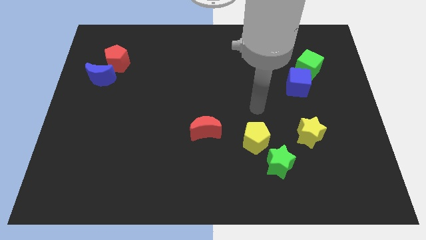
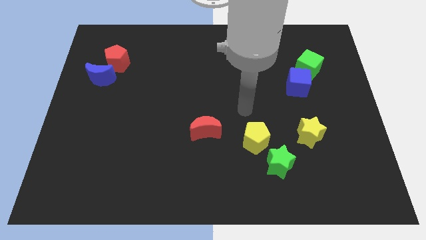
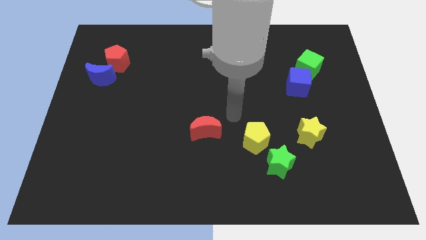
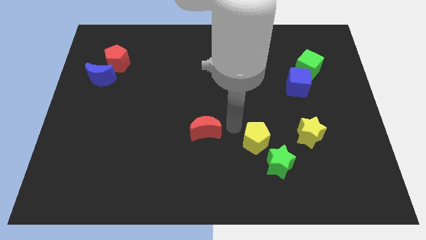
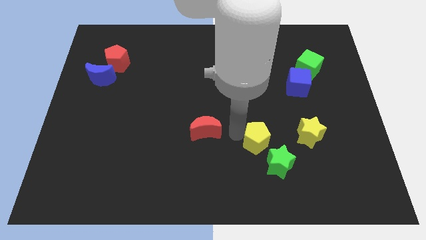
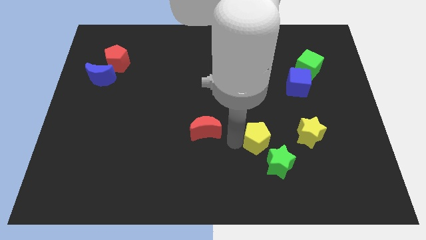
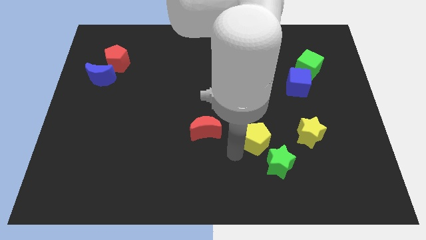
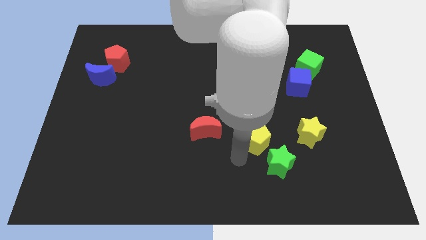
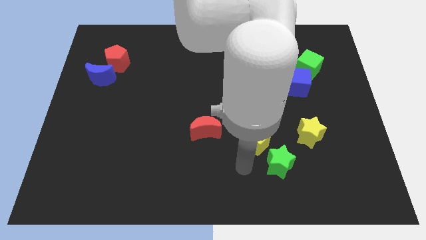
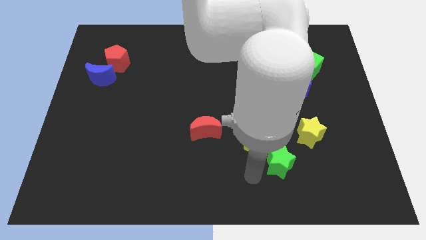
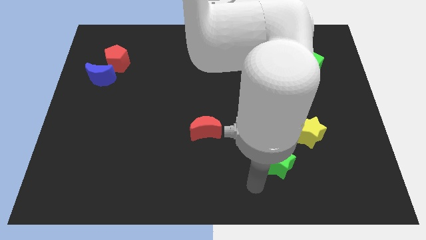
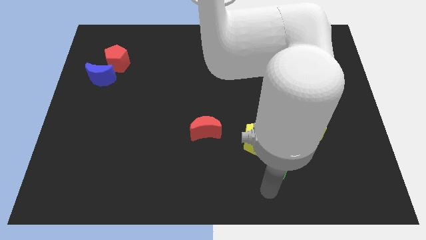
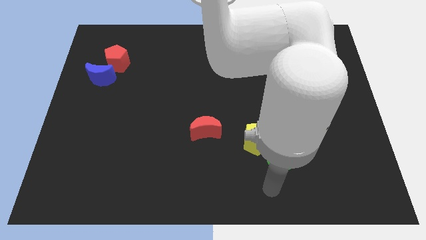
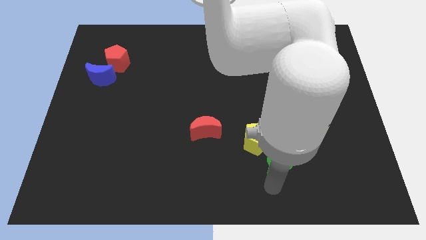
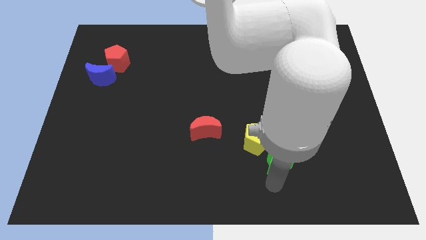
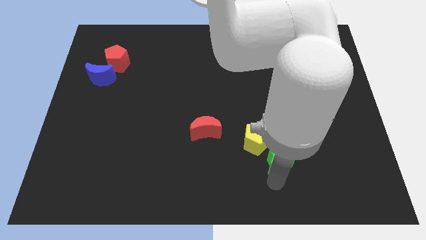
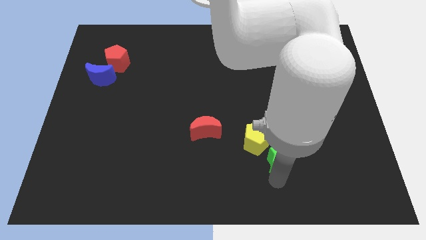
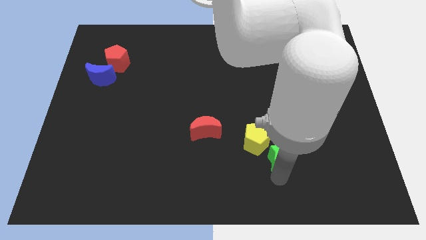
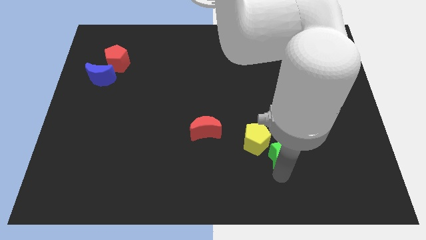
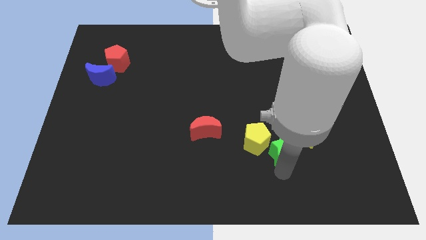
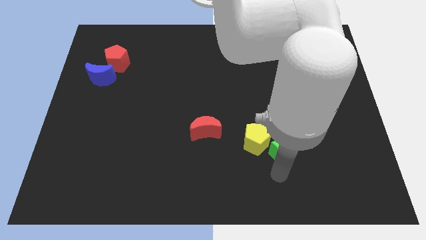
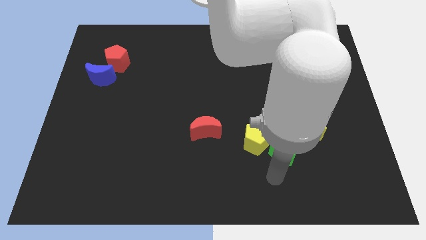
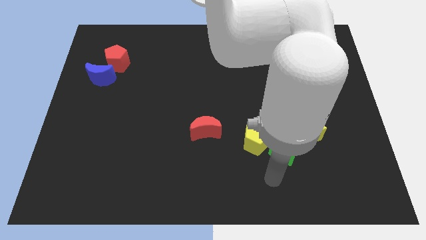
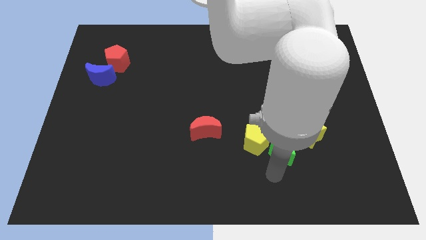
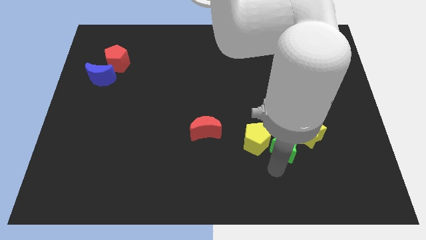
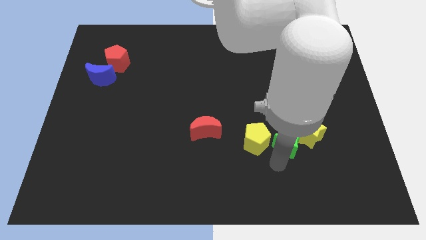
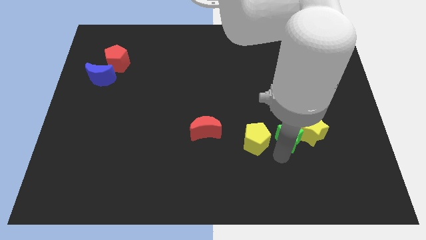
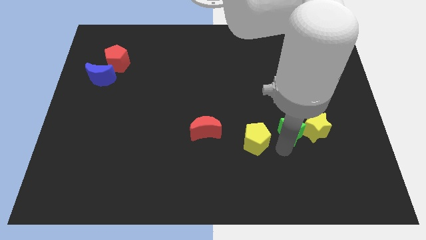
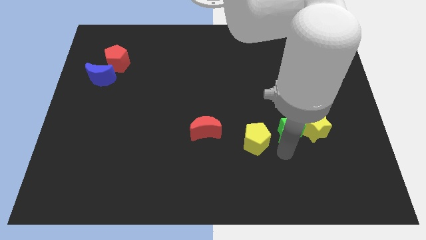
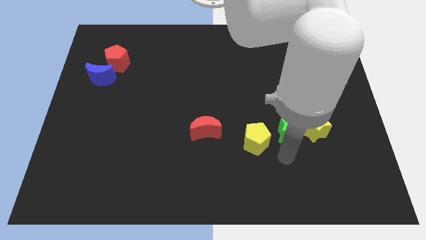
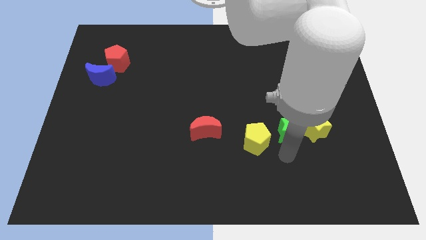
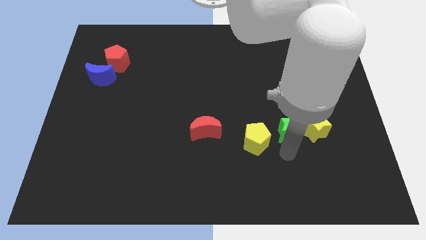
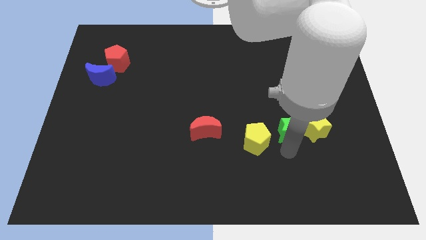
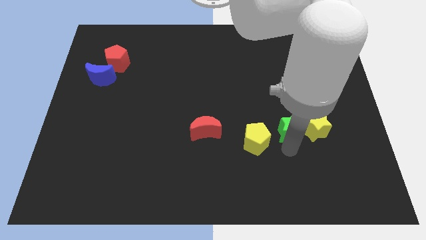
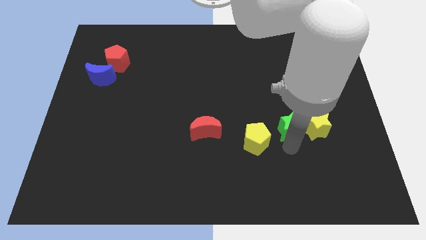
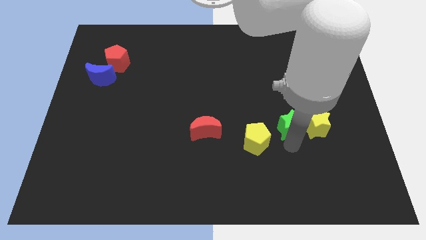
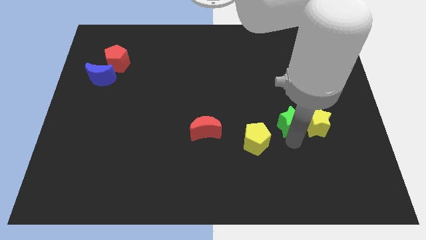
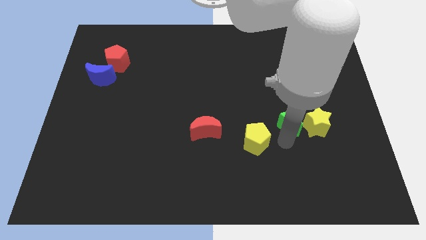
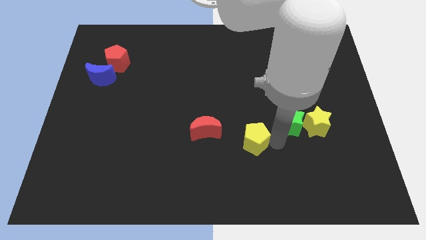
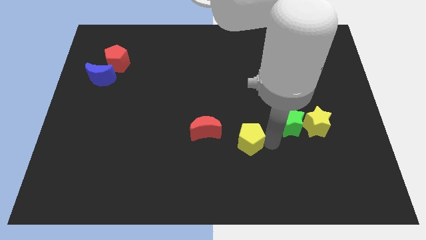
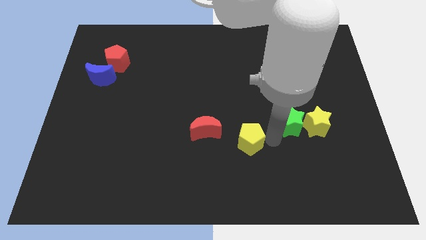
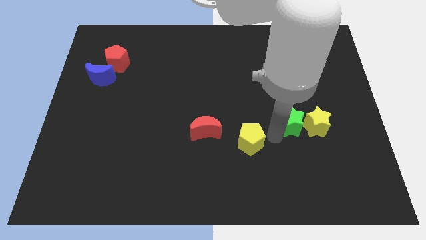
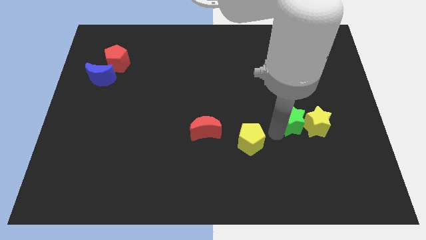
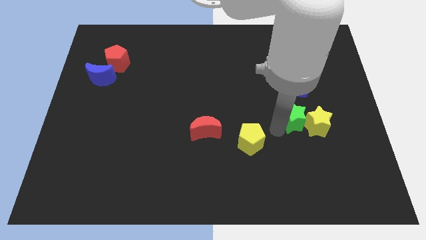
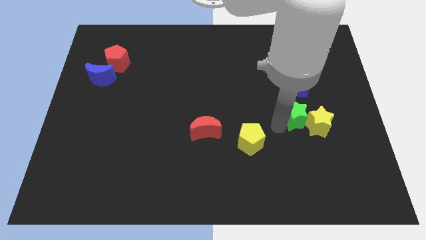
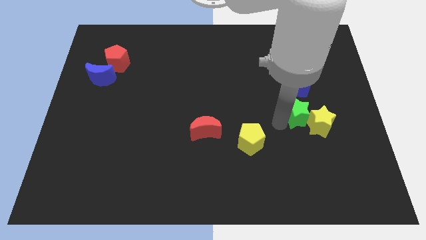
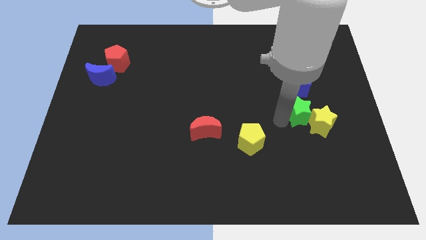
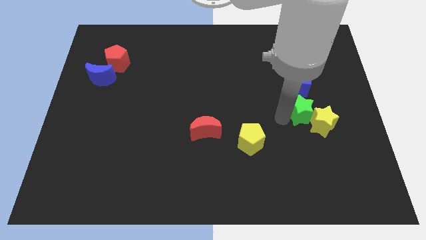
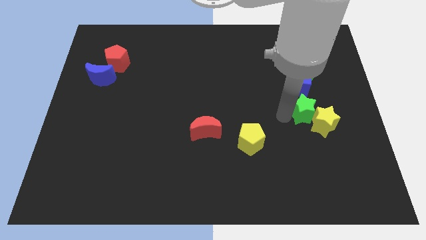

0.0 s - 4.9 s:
push the green star to the bottom side of the green cube

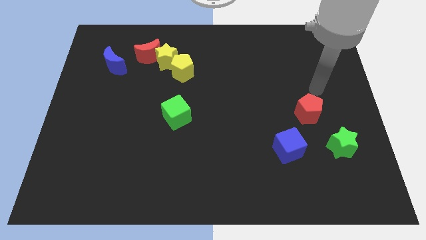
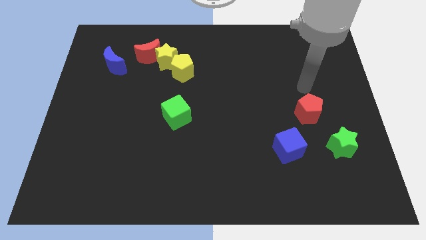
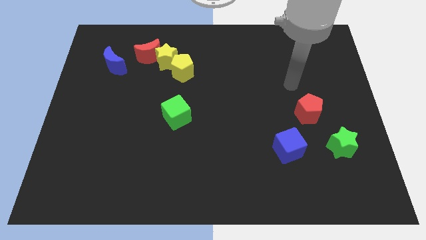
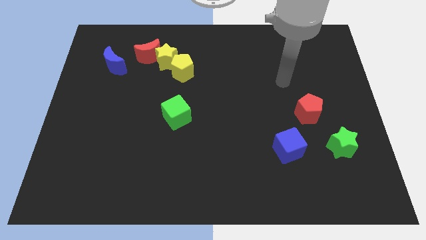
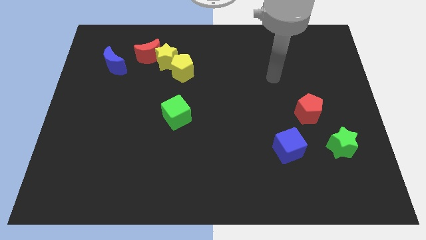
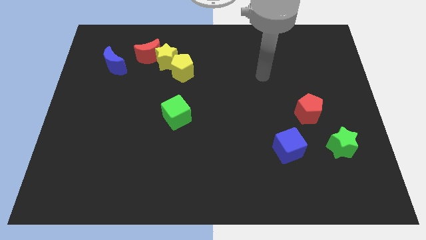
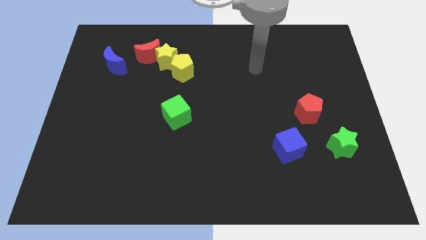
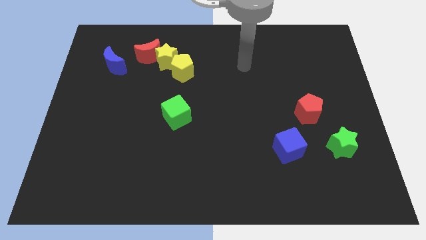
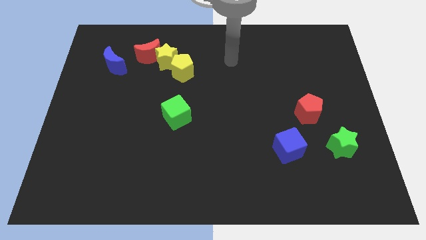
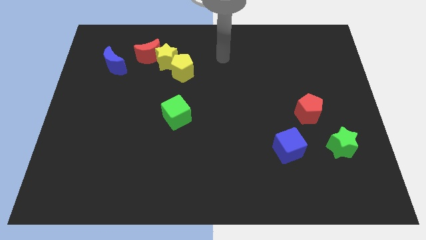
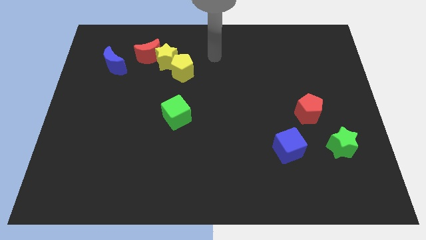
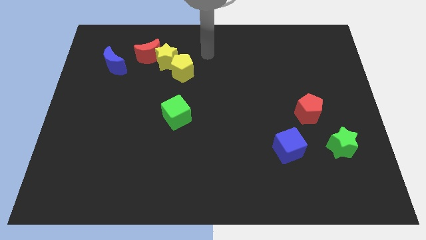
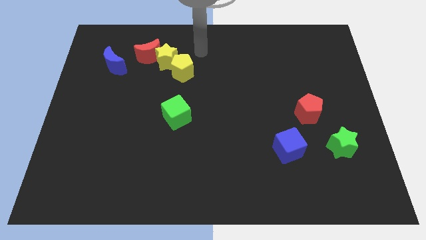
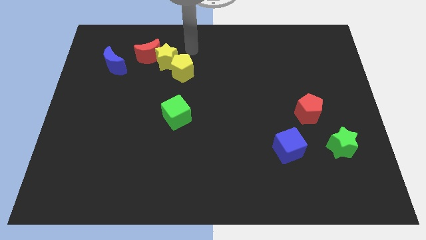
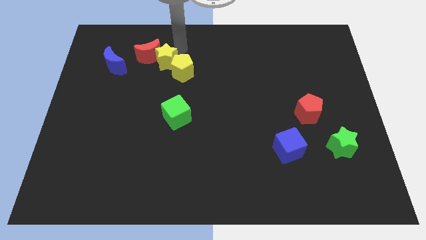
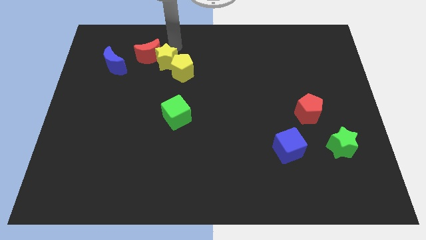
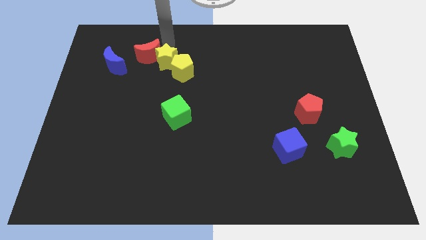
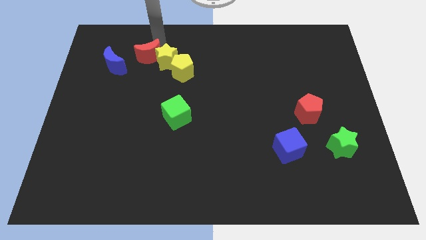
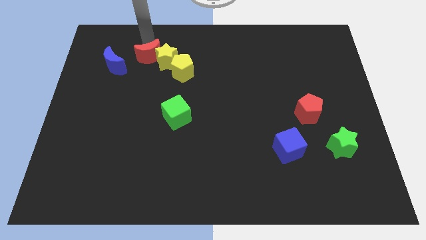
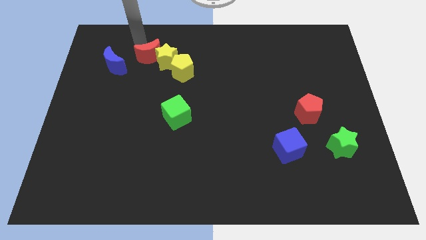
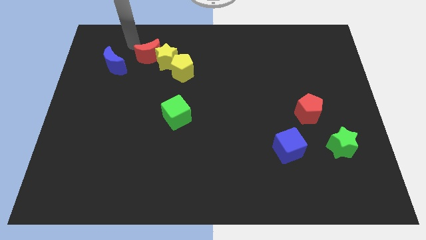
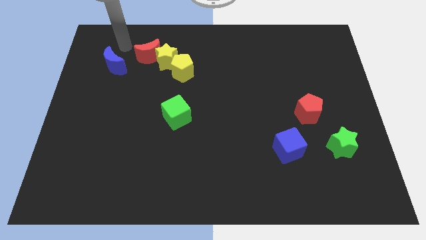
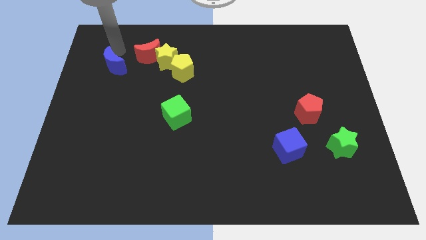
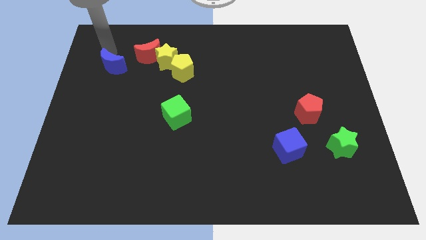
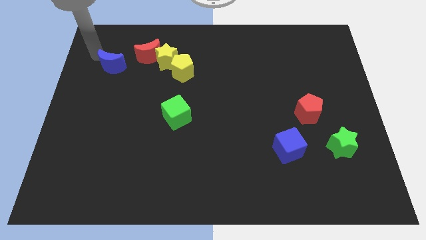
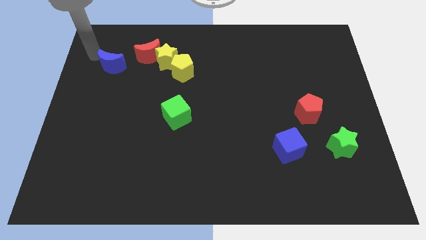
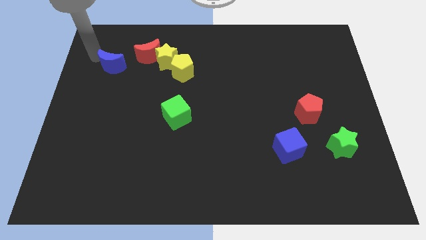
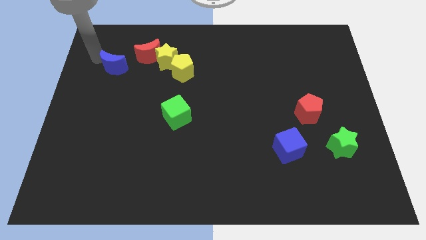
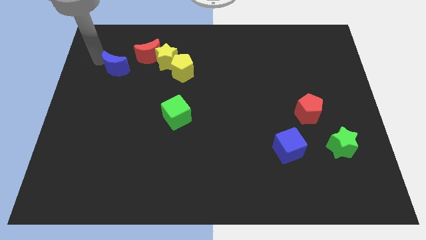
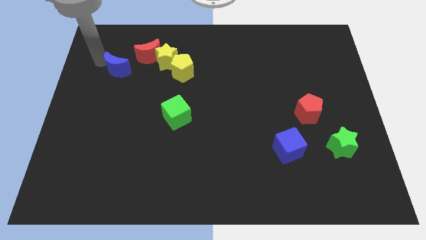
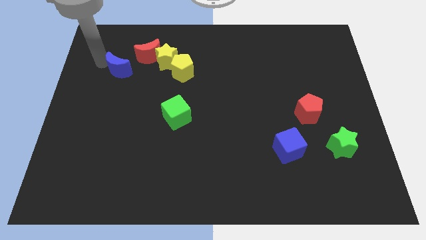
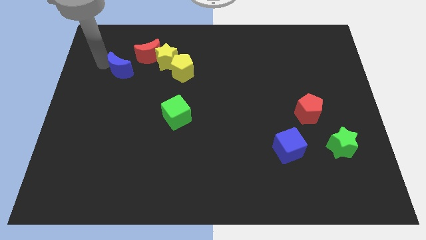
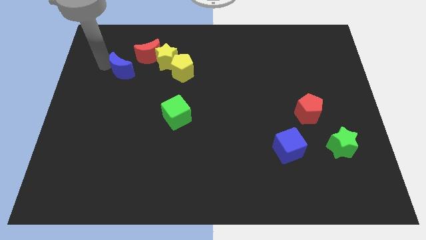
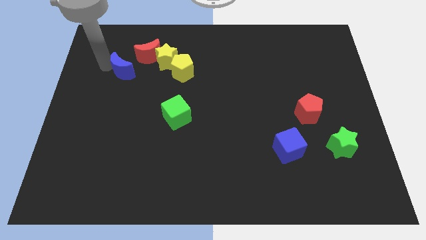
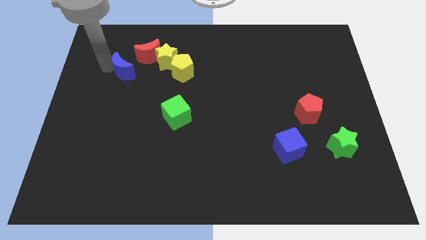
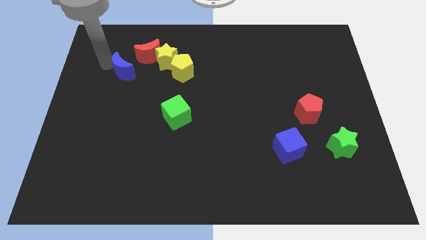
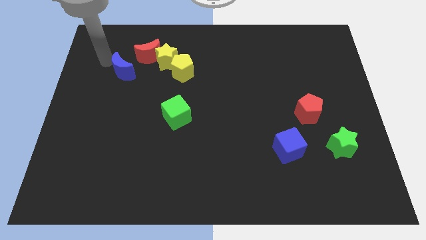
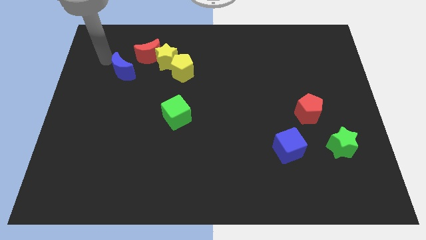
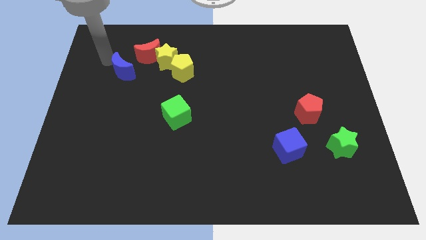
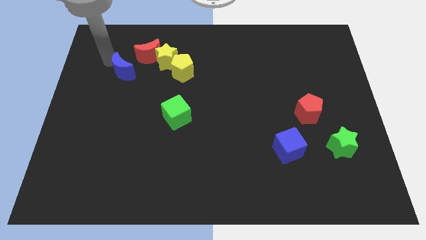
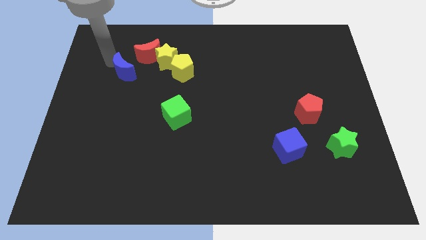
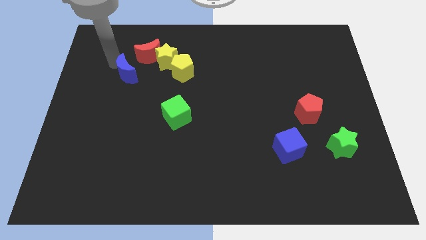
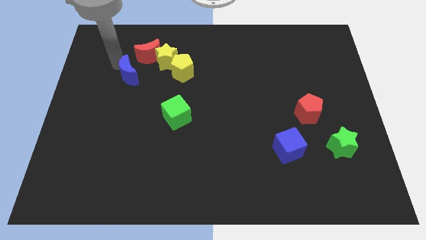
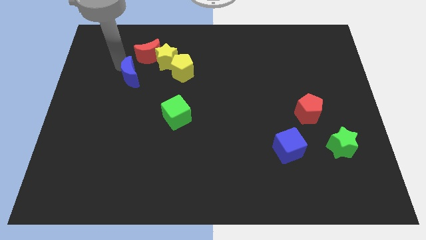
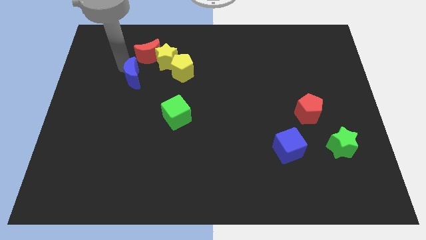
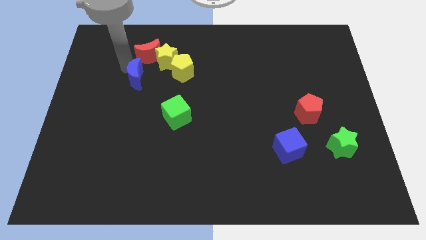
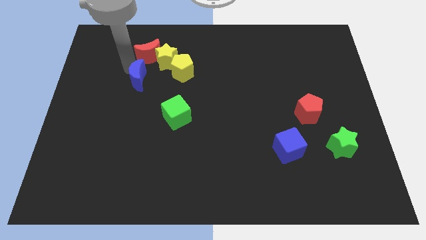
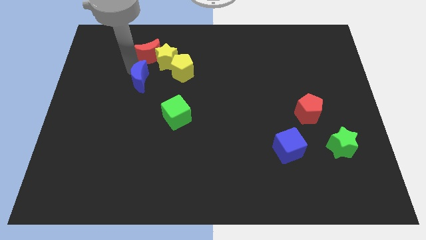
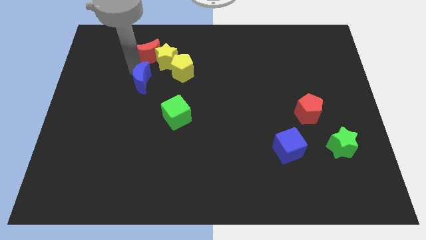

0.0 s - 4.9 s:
move the blue moon to the bottom left side of the yellow pentagon
